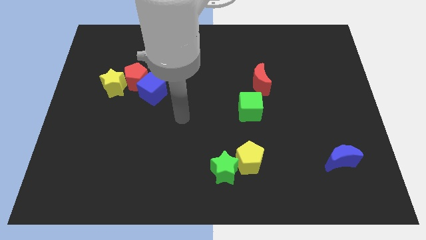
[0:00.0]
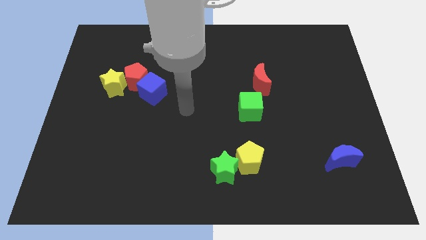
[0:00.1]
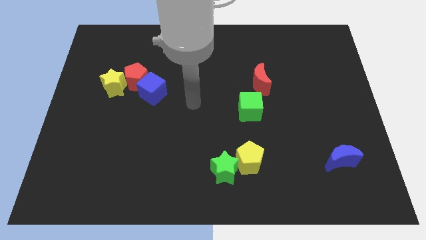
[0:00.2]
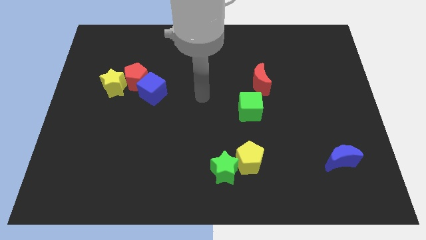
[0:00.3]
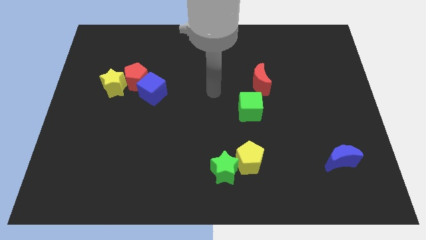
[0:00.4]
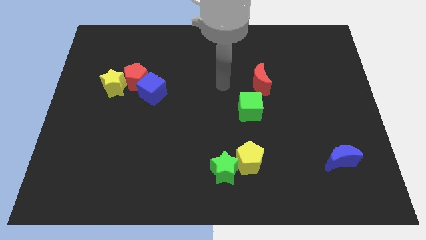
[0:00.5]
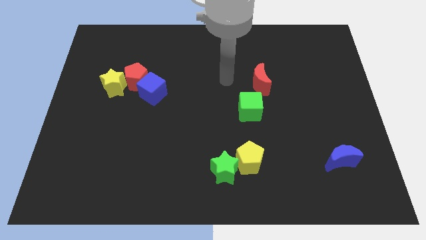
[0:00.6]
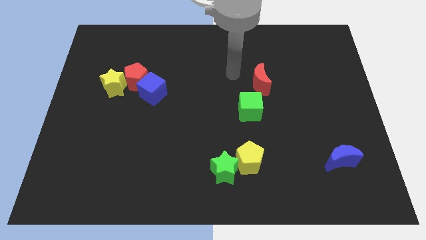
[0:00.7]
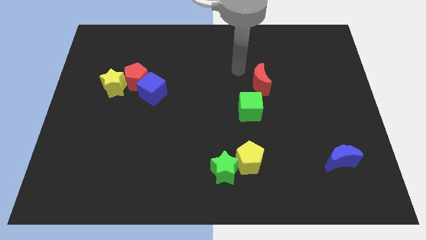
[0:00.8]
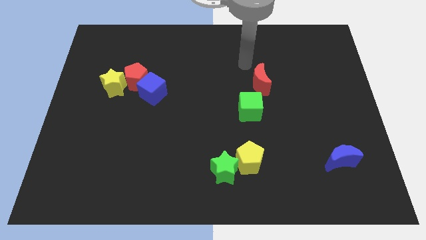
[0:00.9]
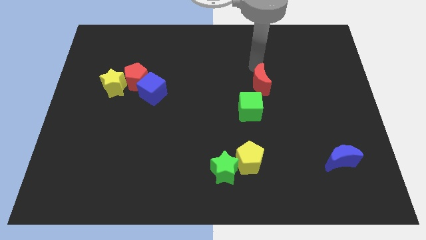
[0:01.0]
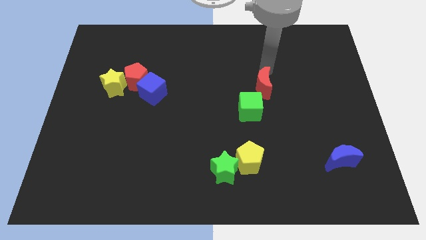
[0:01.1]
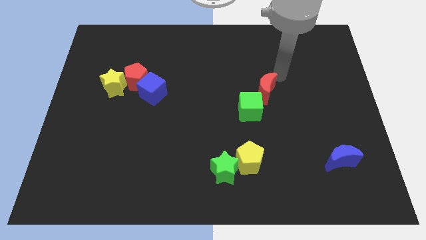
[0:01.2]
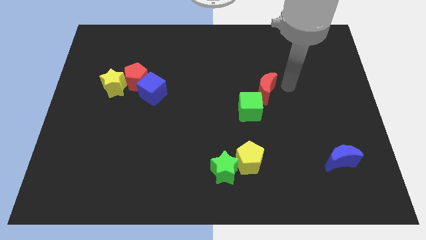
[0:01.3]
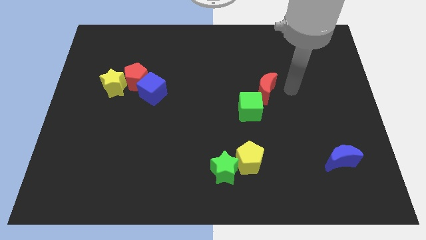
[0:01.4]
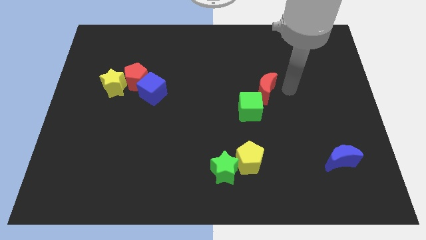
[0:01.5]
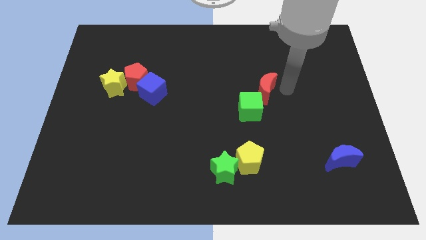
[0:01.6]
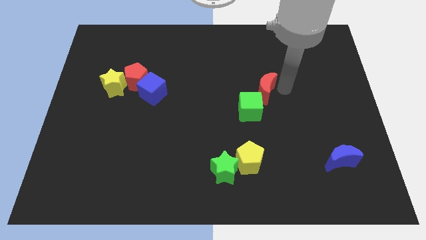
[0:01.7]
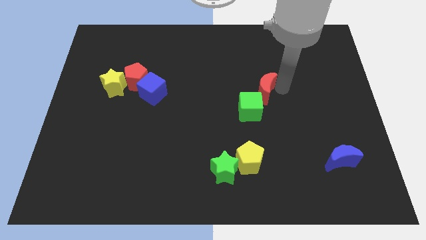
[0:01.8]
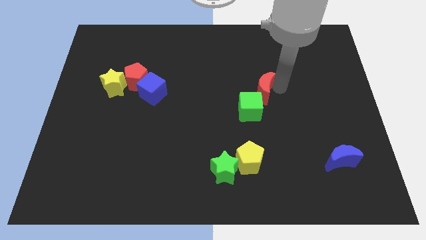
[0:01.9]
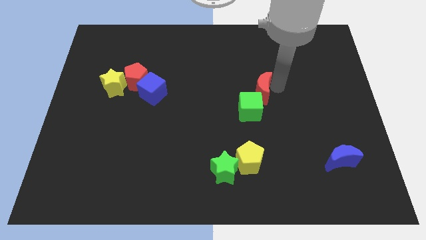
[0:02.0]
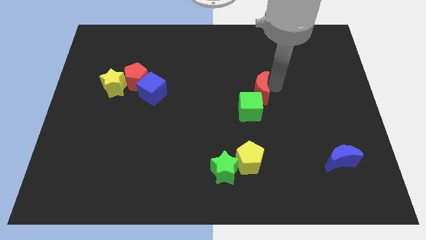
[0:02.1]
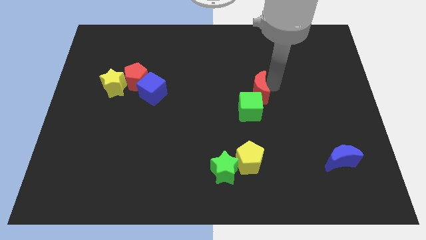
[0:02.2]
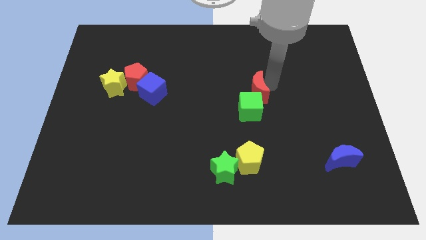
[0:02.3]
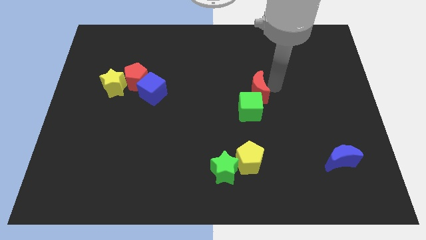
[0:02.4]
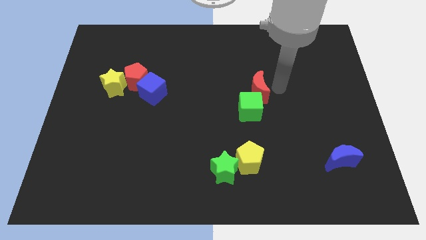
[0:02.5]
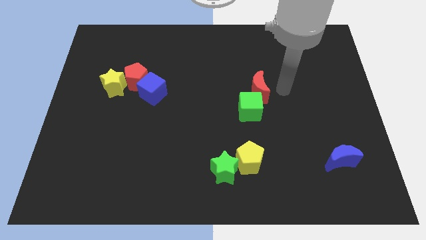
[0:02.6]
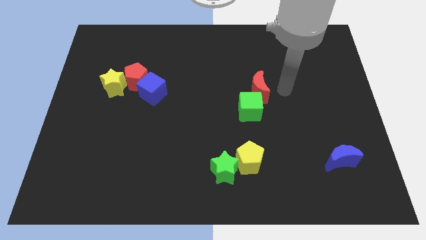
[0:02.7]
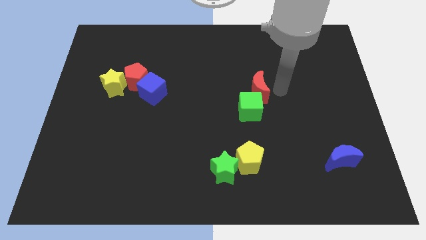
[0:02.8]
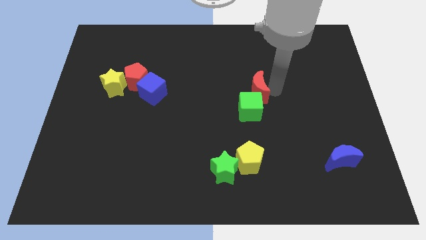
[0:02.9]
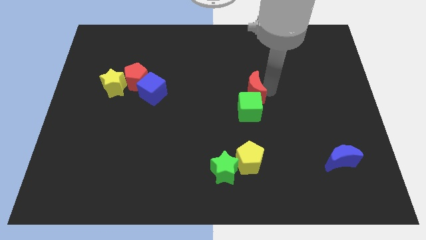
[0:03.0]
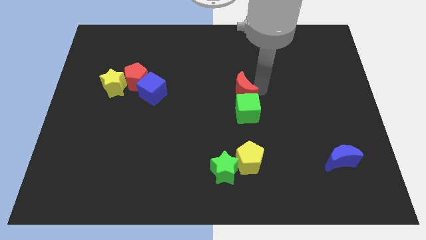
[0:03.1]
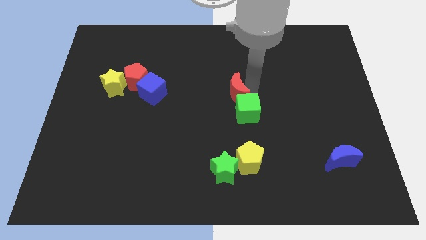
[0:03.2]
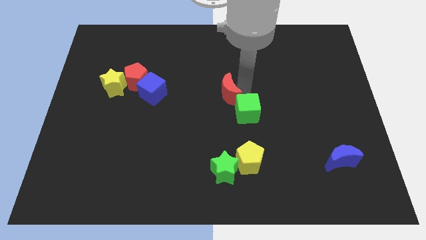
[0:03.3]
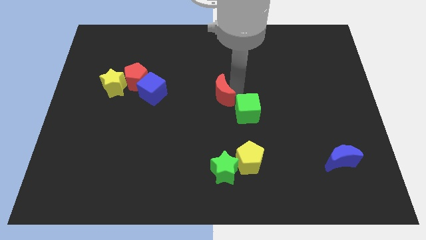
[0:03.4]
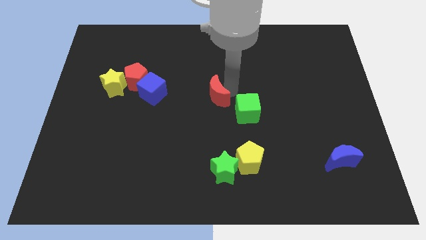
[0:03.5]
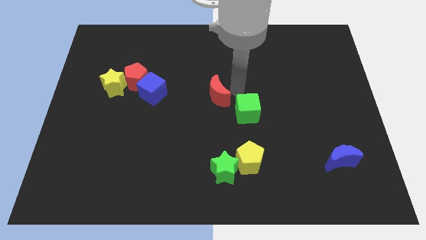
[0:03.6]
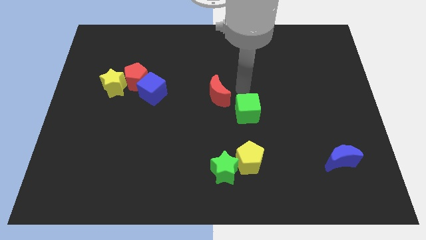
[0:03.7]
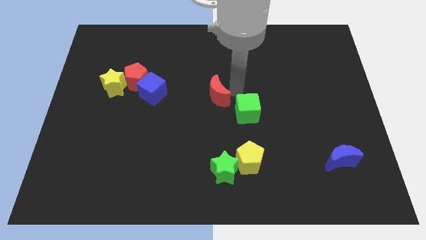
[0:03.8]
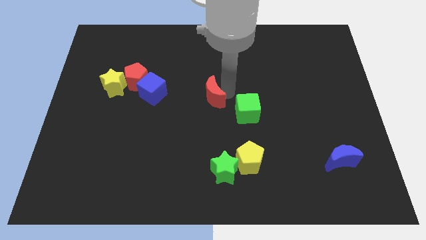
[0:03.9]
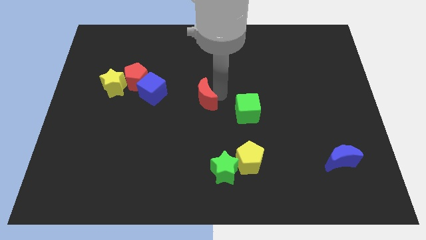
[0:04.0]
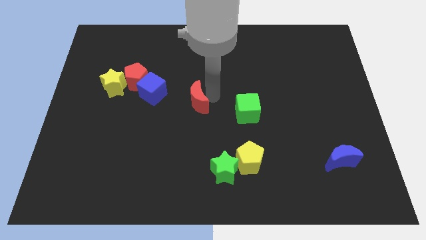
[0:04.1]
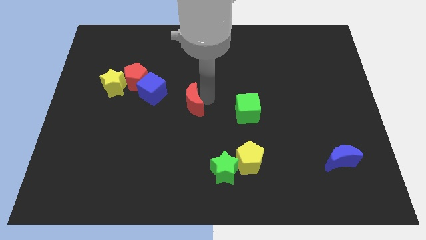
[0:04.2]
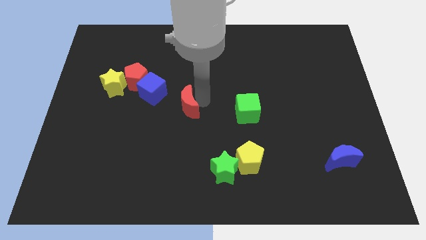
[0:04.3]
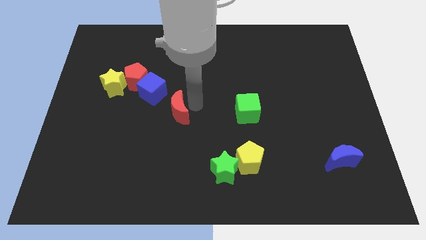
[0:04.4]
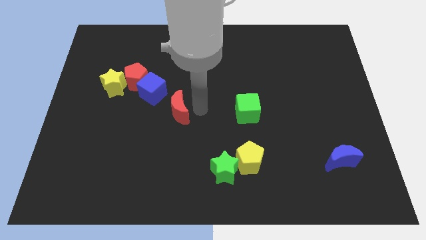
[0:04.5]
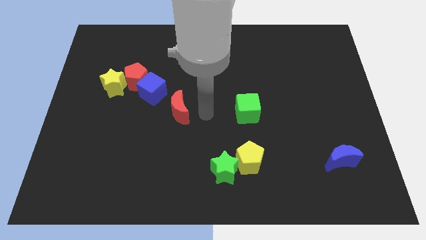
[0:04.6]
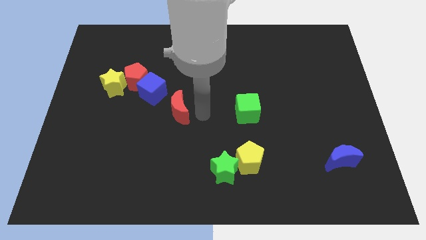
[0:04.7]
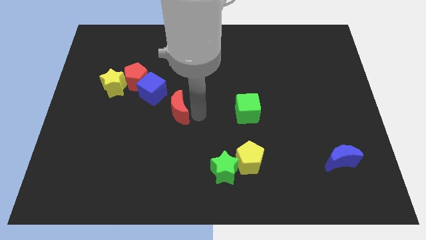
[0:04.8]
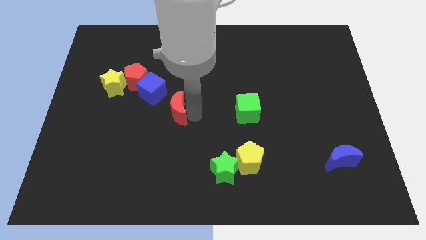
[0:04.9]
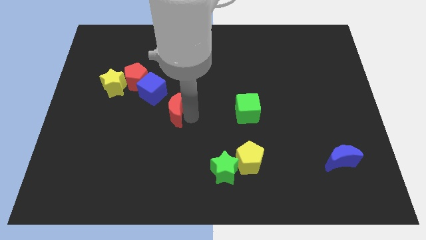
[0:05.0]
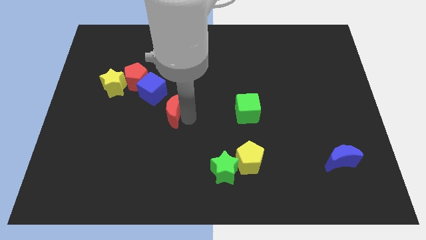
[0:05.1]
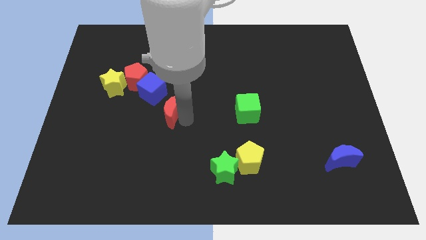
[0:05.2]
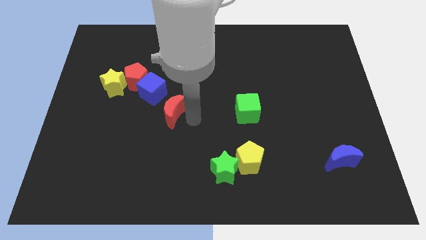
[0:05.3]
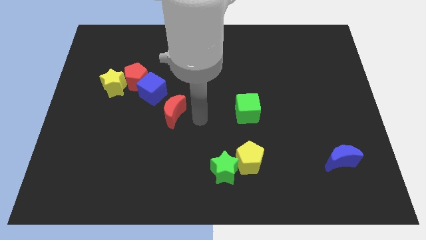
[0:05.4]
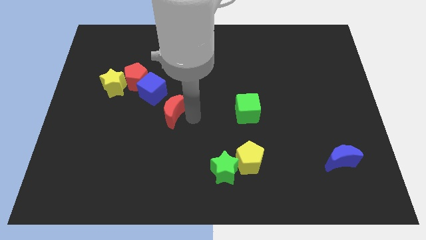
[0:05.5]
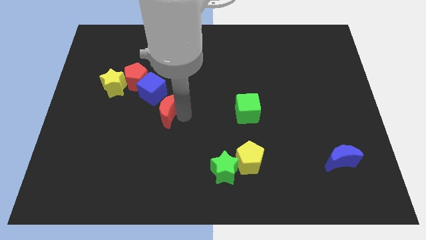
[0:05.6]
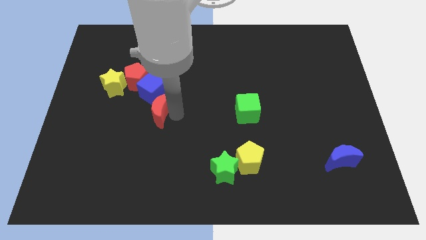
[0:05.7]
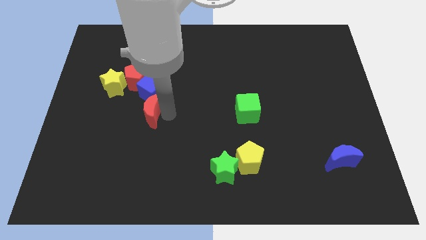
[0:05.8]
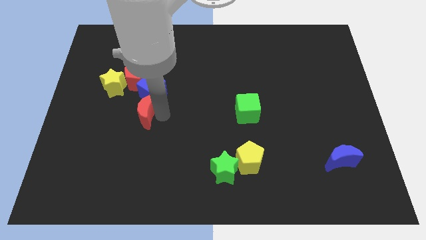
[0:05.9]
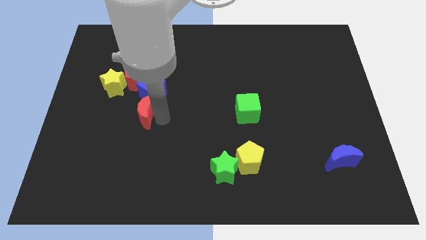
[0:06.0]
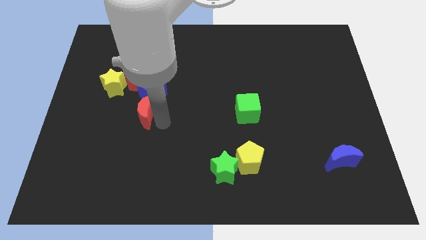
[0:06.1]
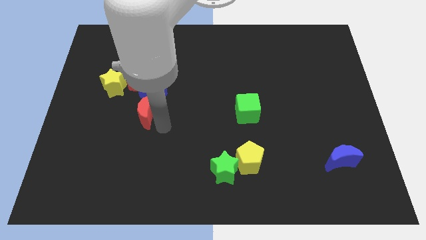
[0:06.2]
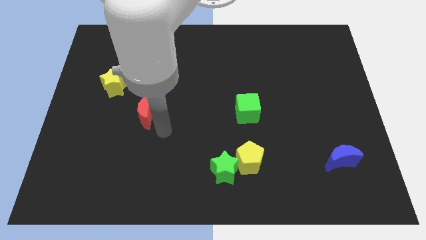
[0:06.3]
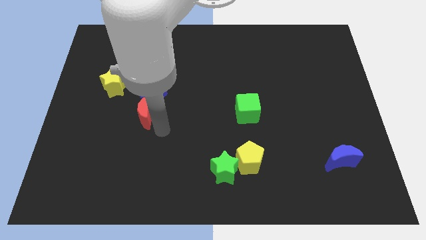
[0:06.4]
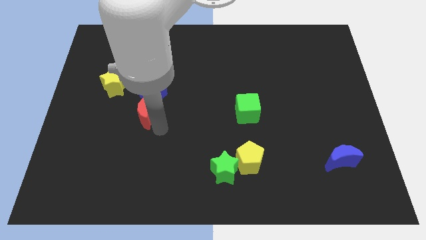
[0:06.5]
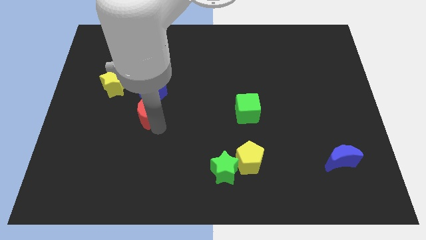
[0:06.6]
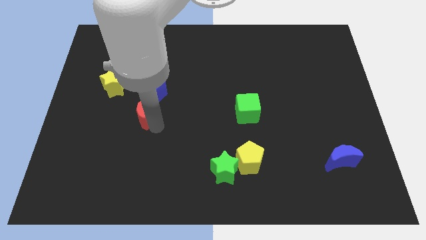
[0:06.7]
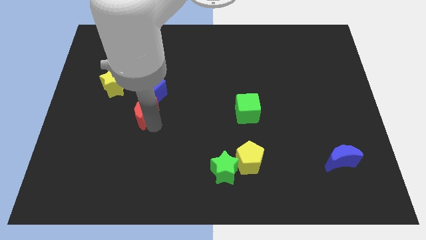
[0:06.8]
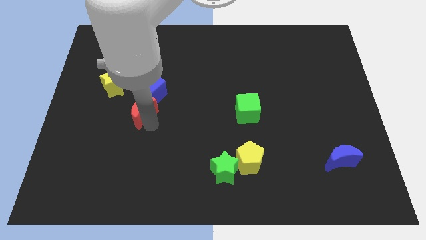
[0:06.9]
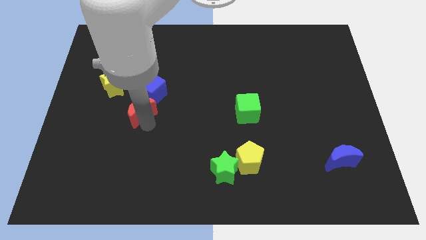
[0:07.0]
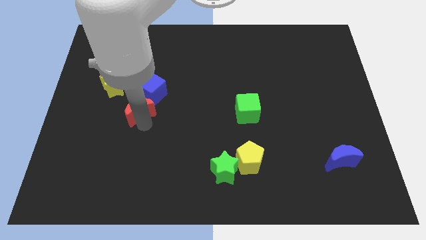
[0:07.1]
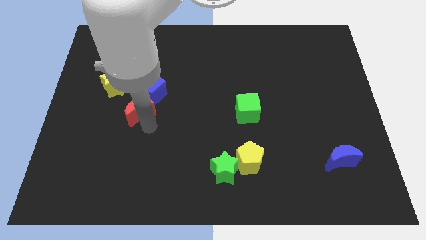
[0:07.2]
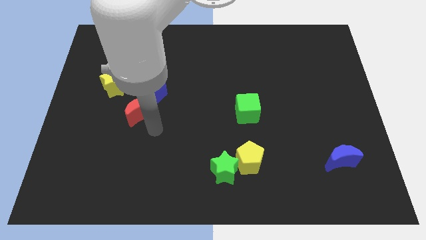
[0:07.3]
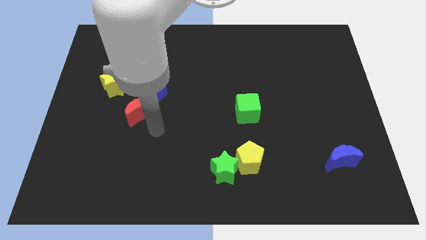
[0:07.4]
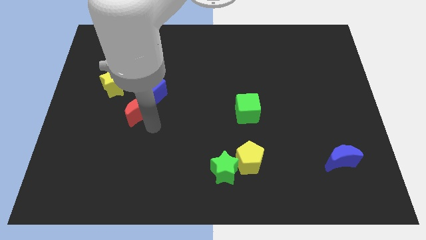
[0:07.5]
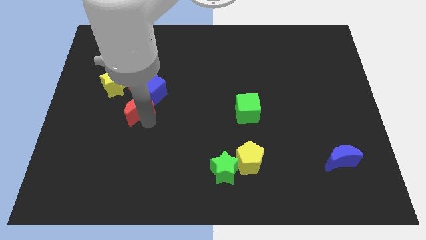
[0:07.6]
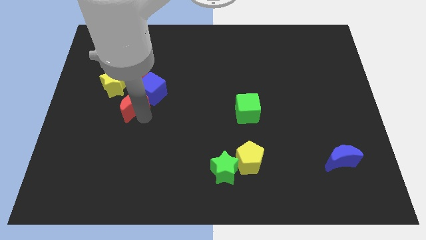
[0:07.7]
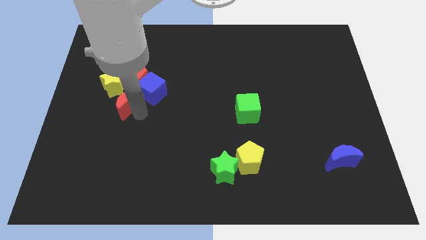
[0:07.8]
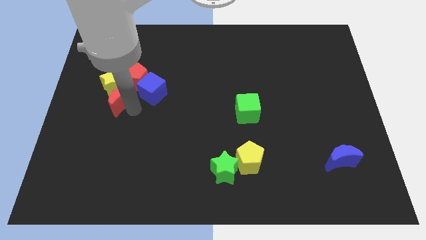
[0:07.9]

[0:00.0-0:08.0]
put the red moon towards the yellow star
